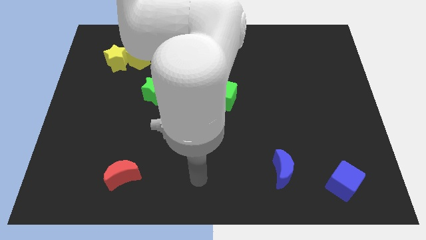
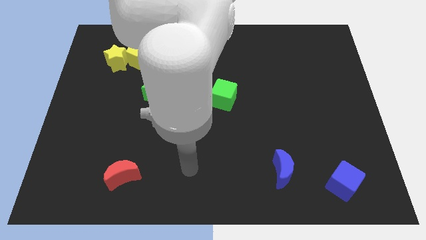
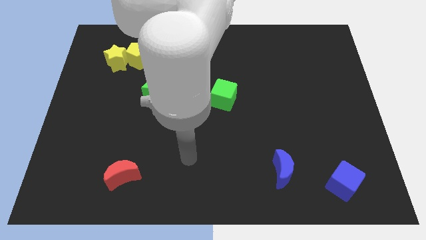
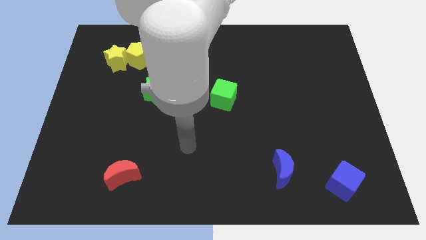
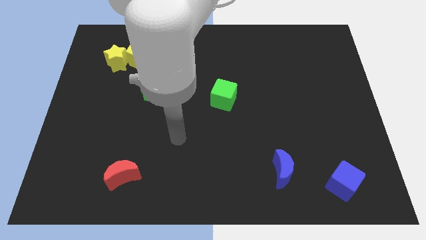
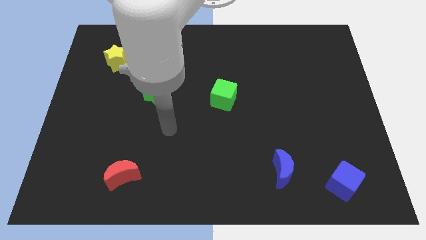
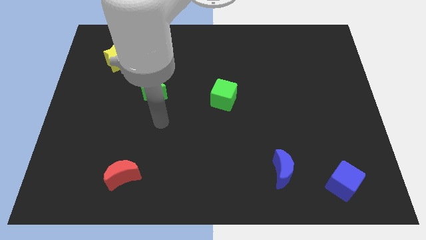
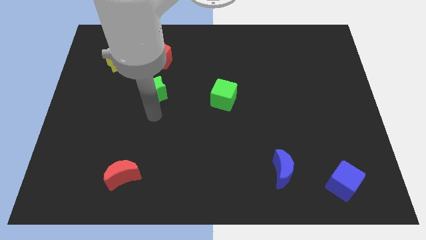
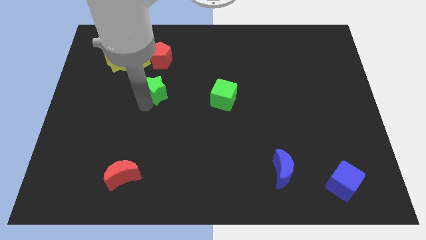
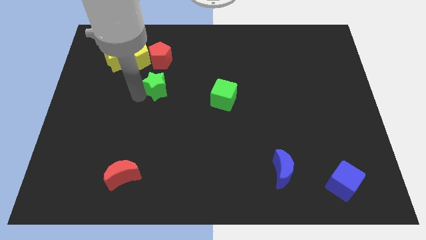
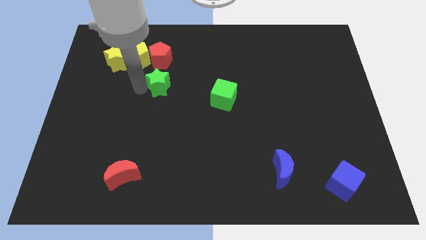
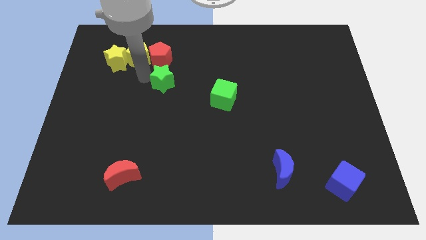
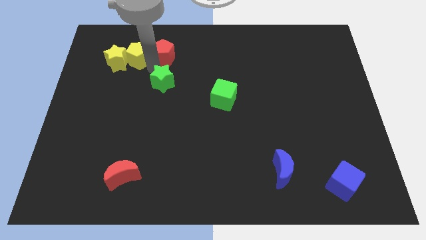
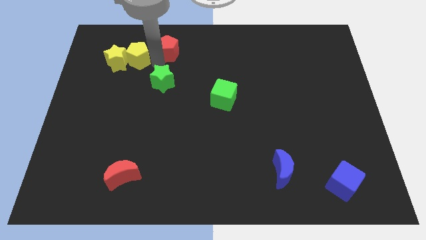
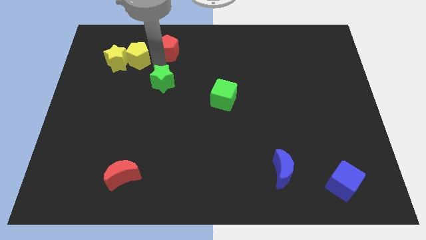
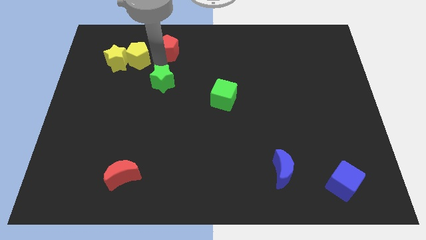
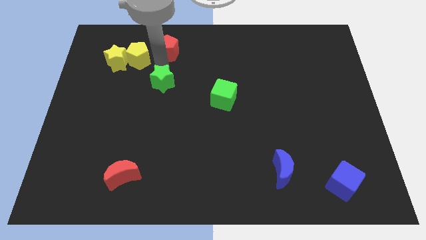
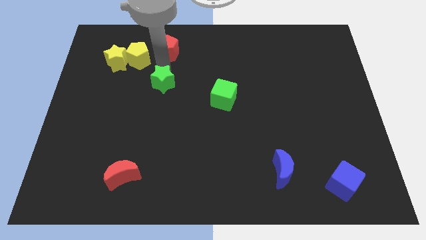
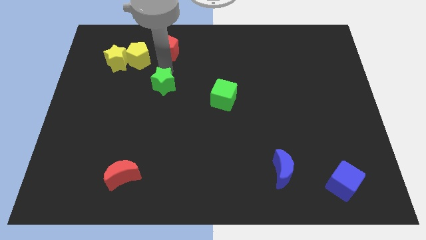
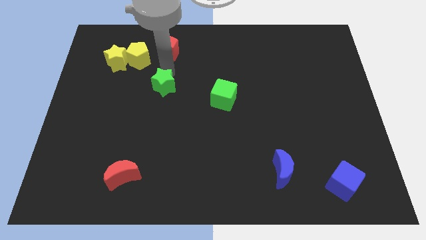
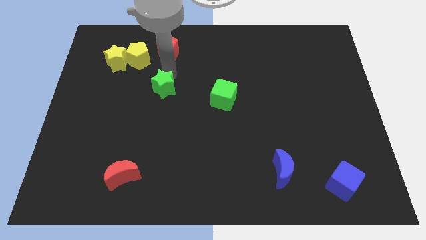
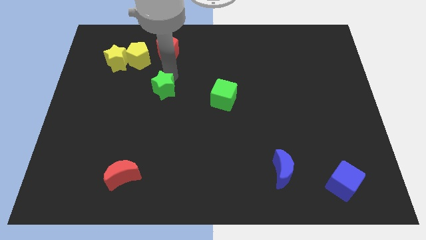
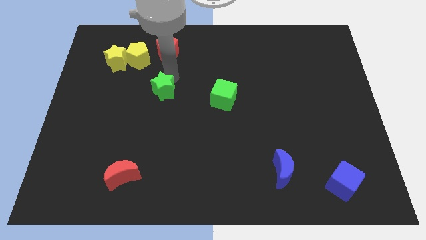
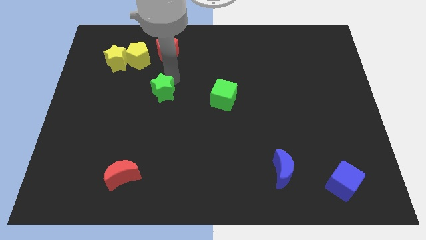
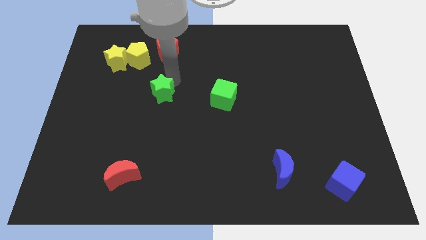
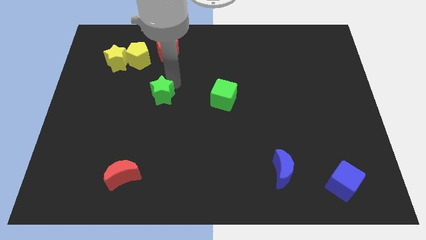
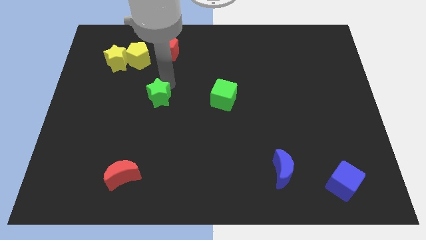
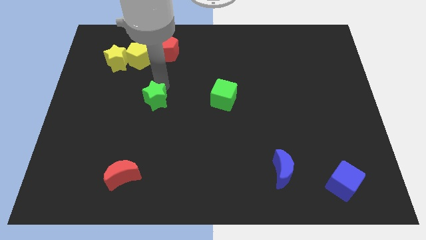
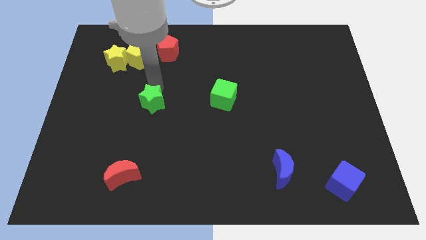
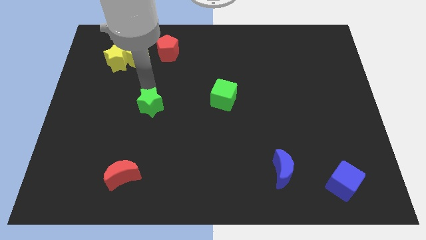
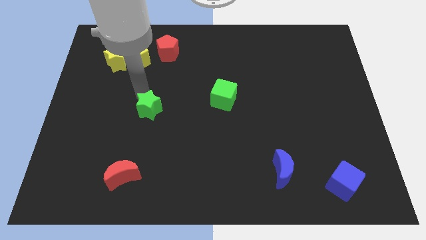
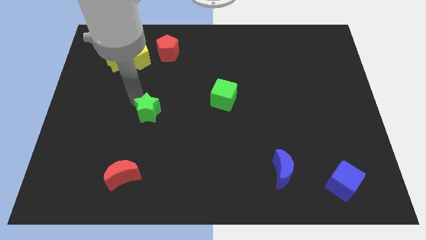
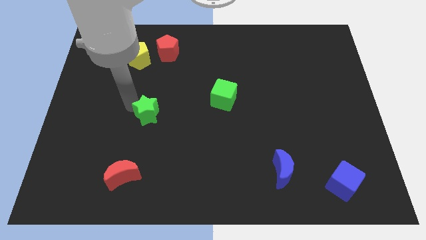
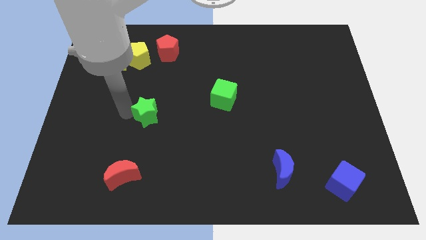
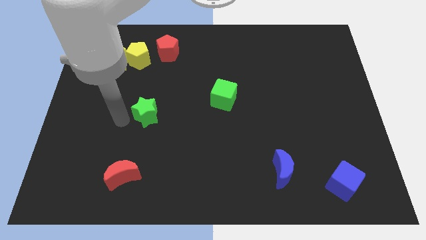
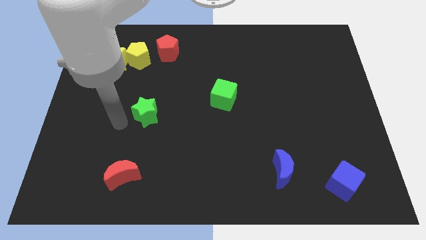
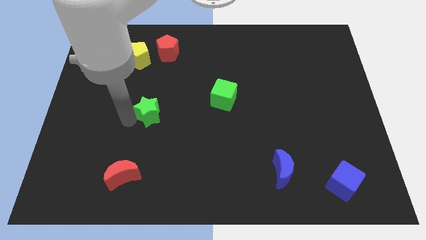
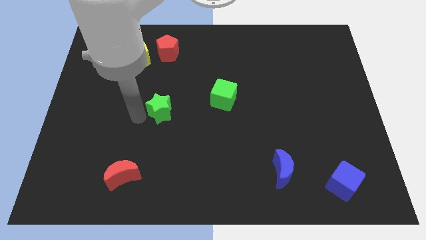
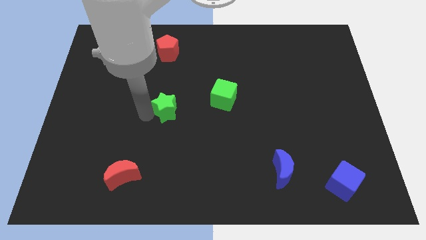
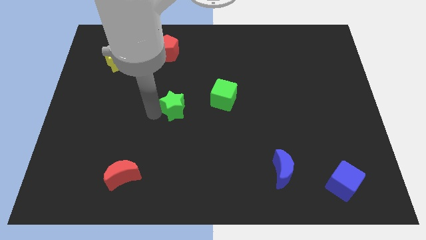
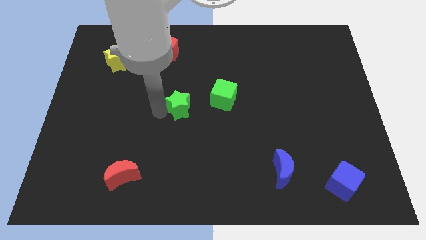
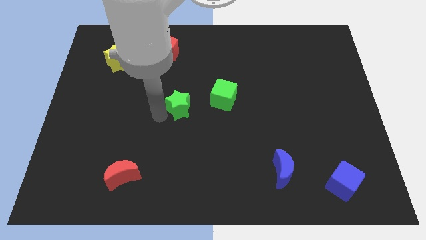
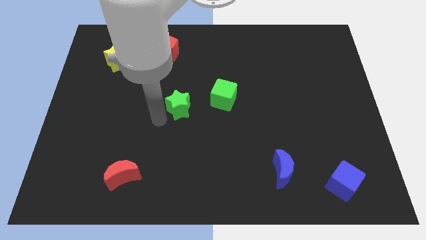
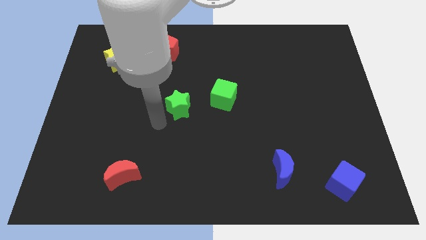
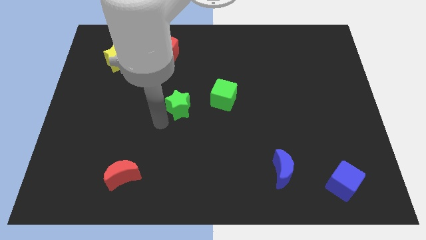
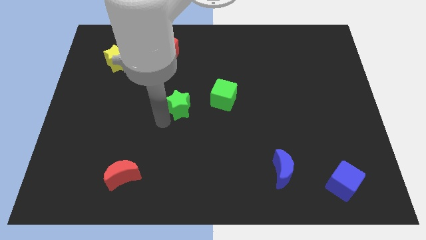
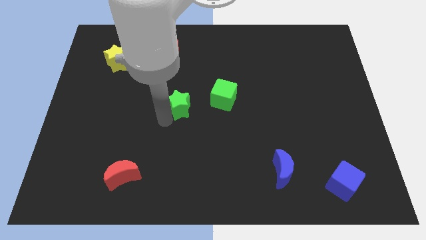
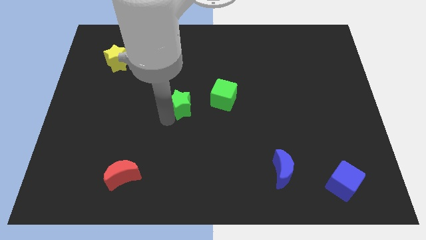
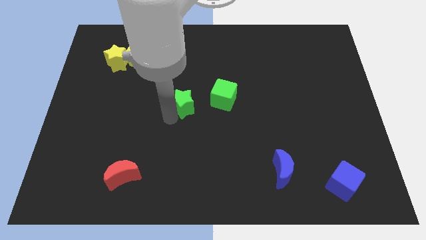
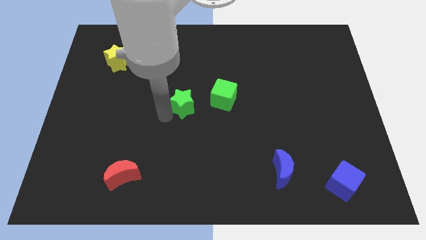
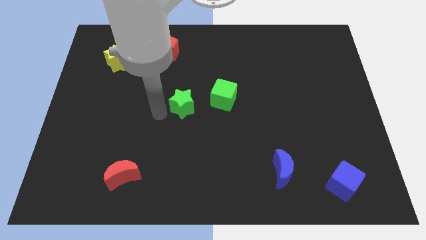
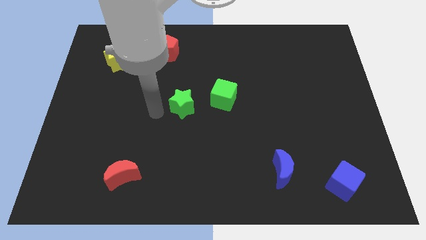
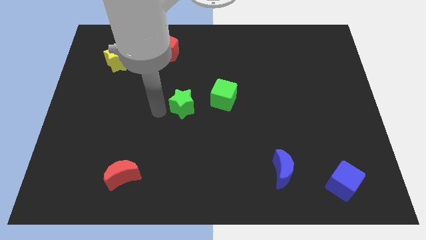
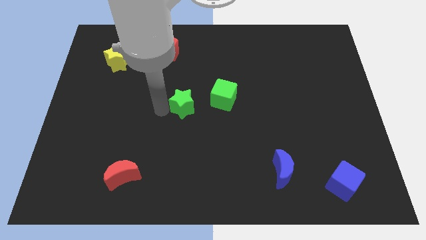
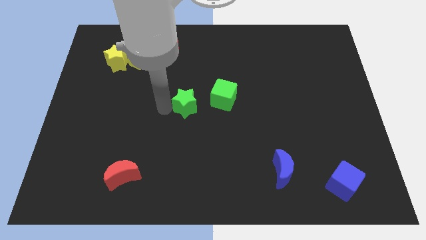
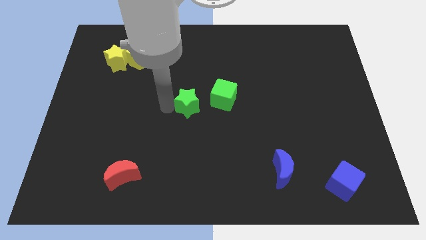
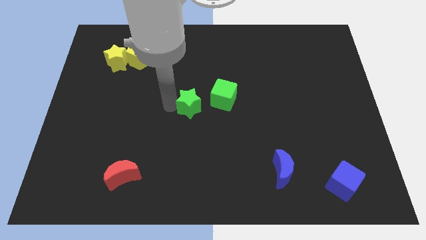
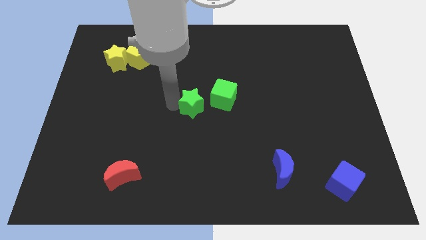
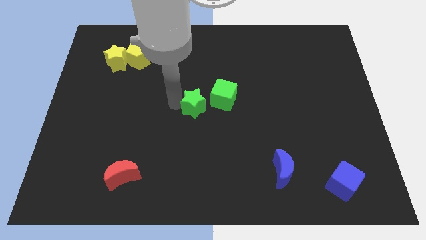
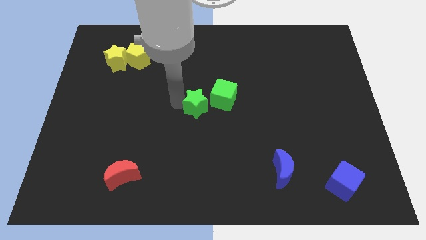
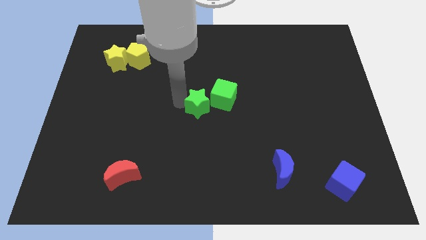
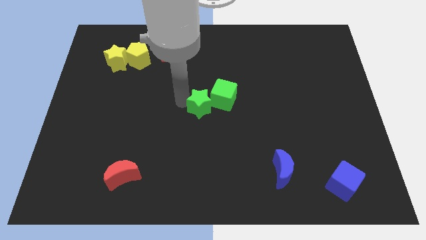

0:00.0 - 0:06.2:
move the green star next to the green cube

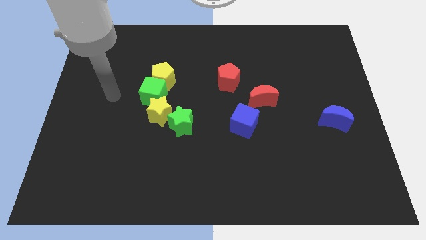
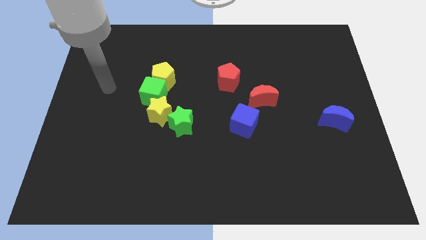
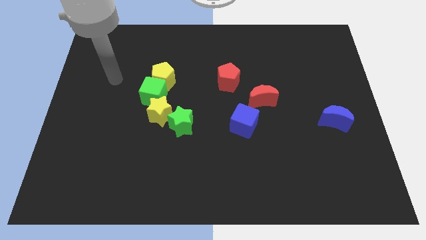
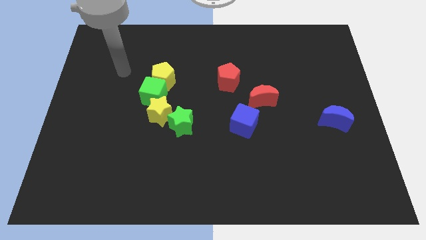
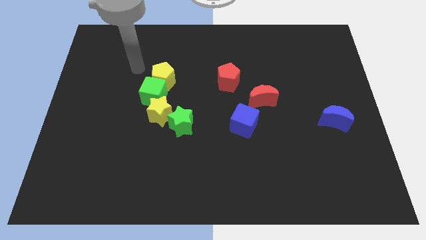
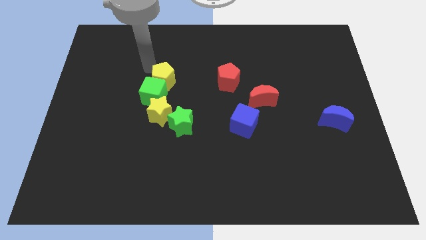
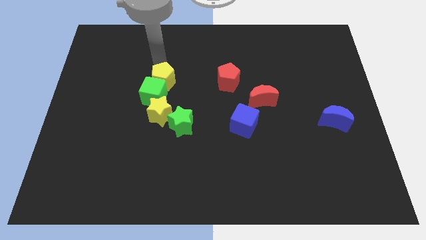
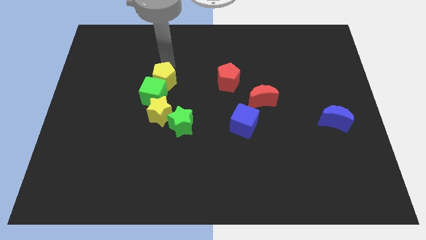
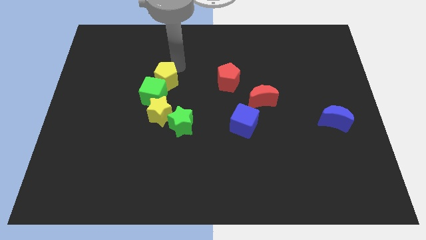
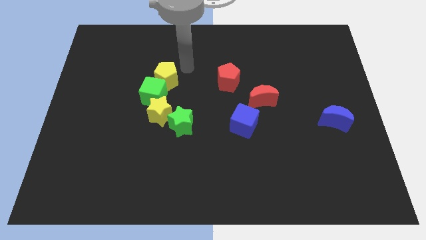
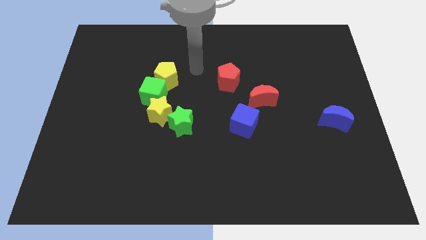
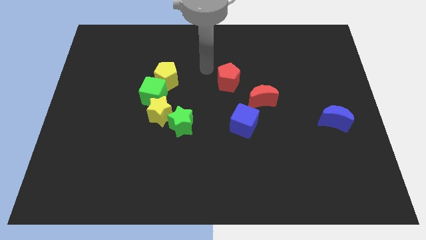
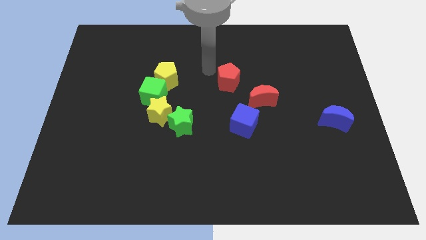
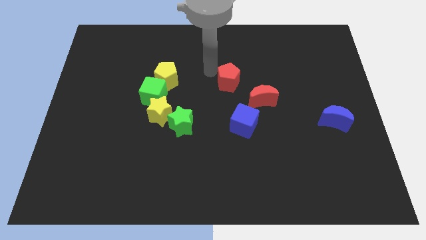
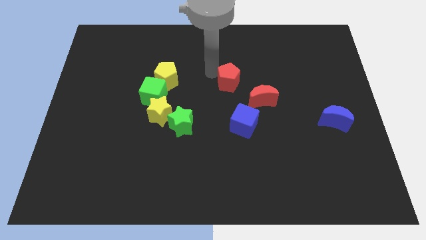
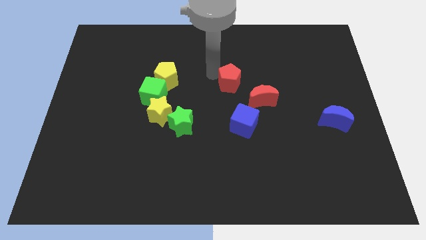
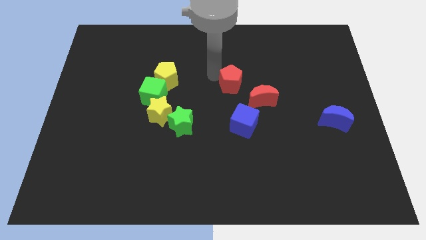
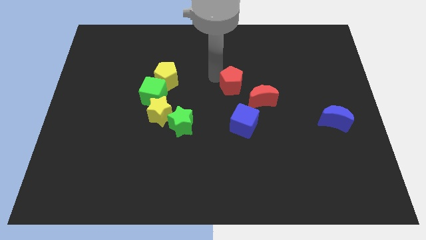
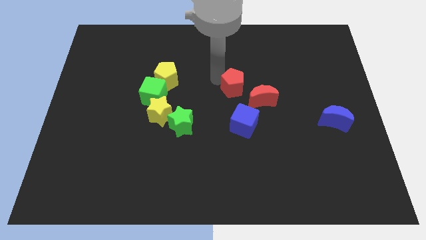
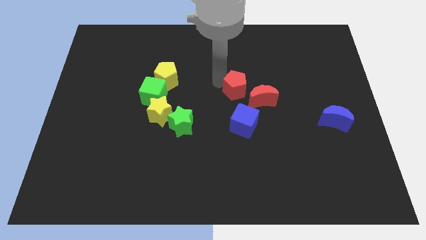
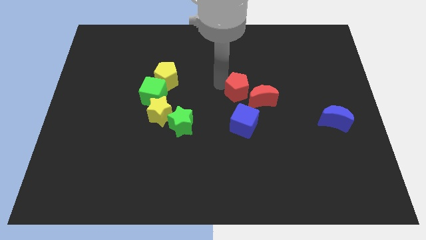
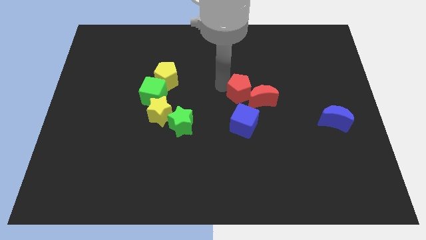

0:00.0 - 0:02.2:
put the red pentagon towards the red moon
